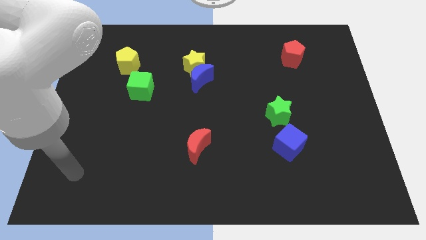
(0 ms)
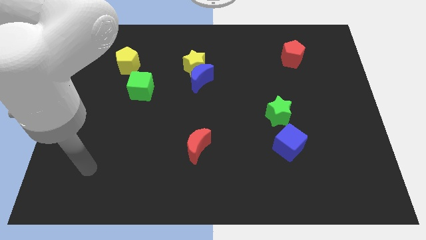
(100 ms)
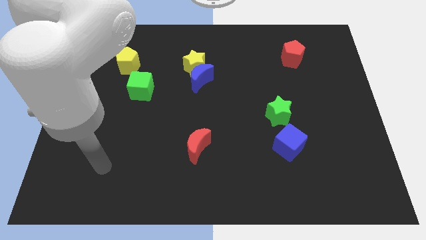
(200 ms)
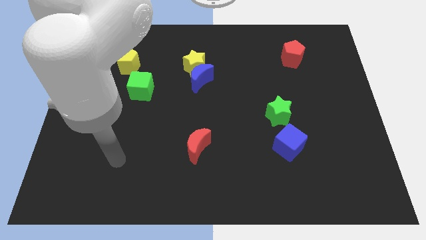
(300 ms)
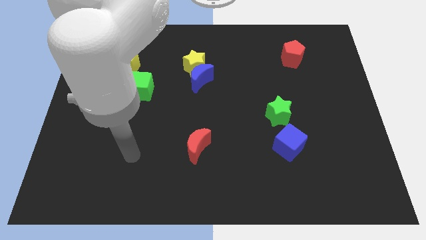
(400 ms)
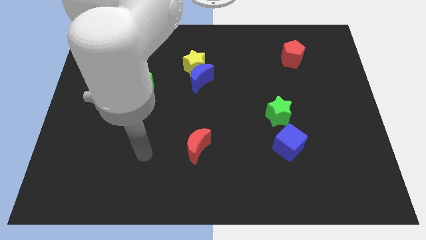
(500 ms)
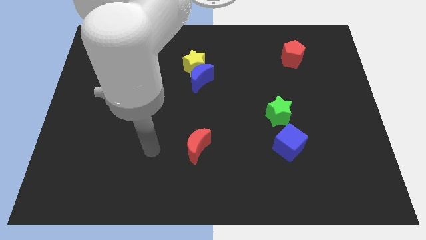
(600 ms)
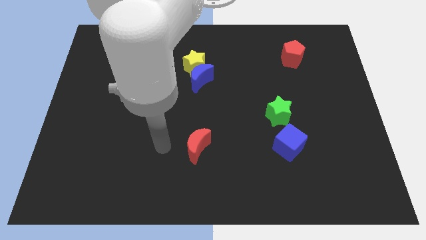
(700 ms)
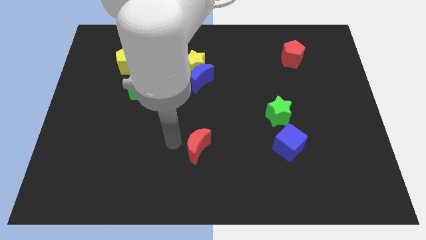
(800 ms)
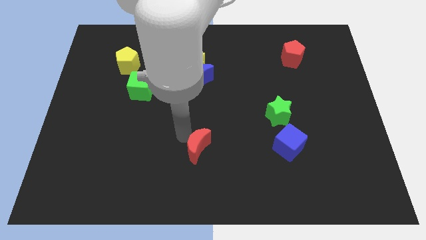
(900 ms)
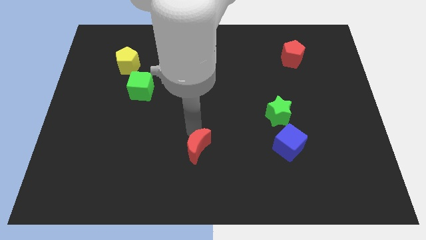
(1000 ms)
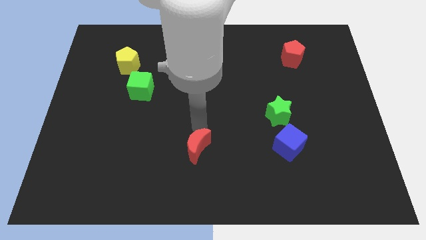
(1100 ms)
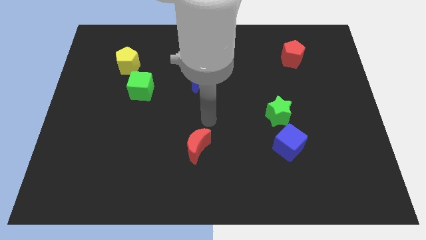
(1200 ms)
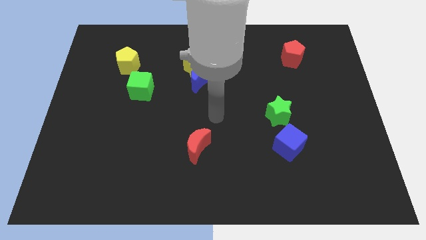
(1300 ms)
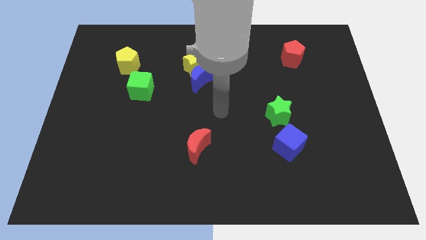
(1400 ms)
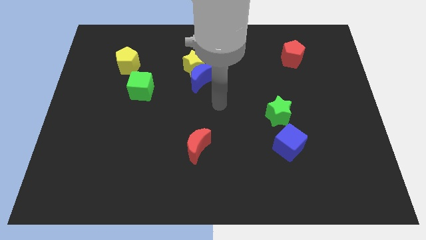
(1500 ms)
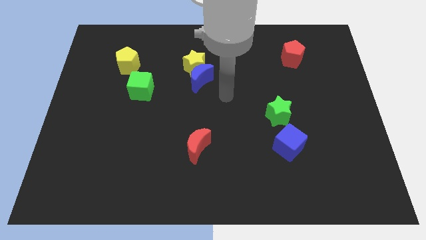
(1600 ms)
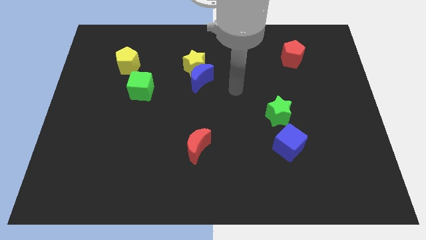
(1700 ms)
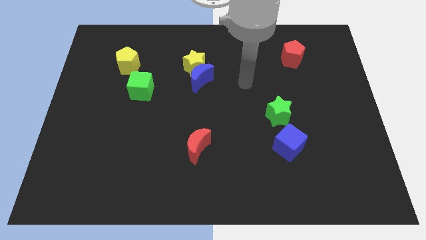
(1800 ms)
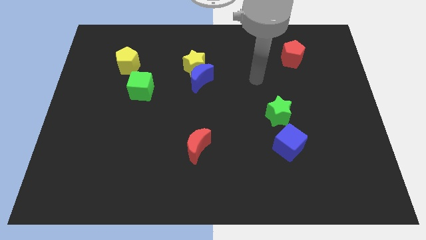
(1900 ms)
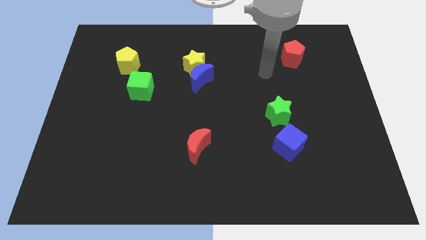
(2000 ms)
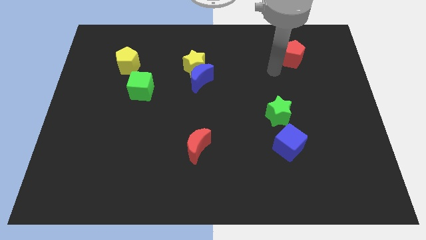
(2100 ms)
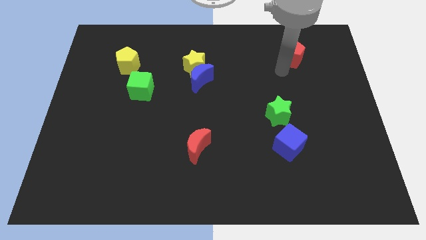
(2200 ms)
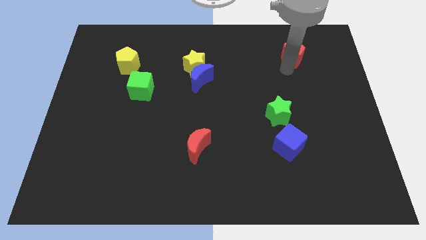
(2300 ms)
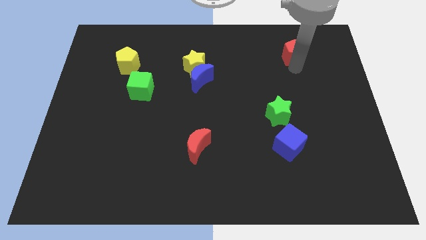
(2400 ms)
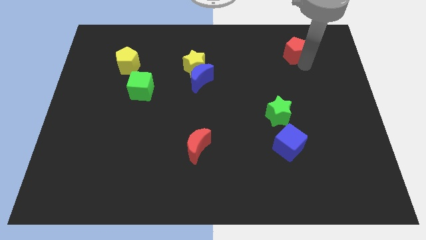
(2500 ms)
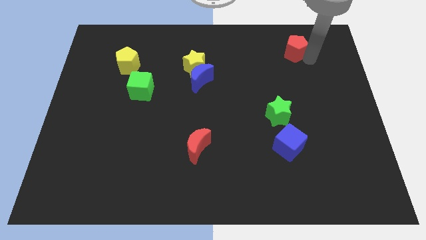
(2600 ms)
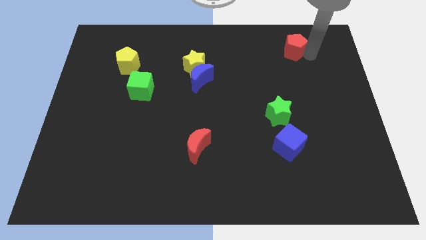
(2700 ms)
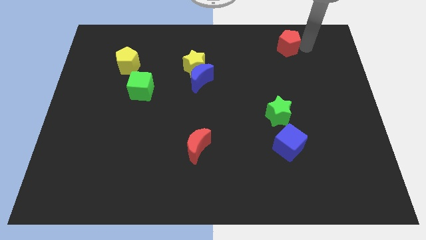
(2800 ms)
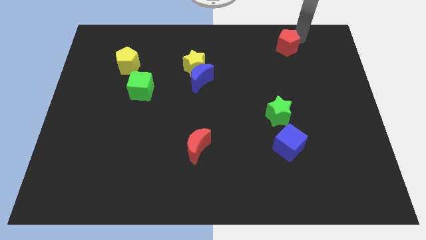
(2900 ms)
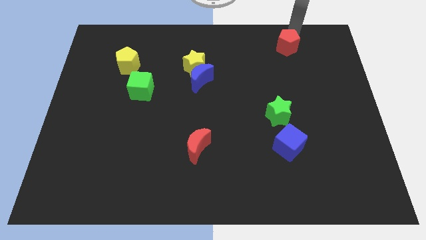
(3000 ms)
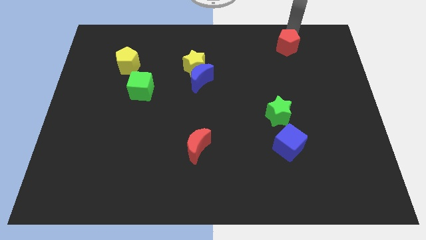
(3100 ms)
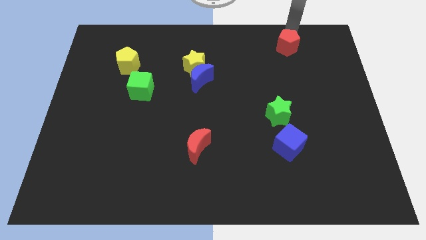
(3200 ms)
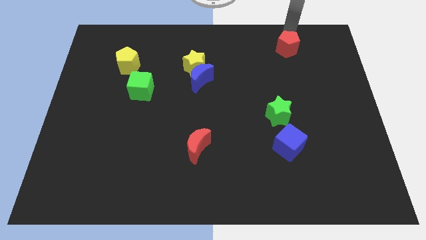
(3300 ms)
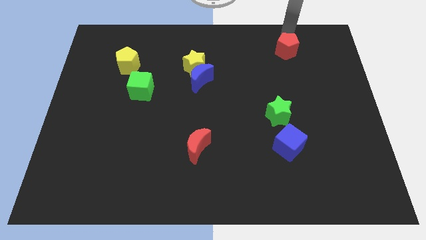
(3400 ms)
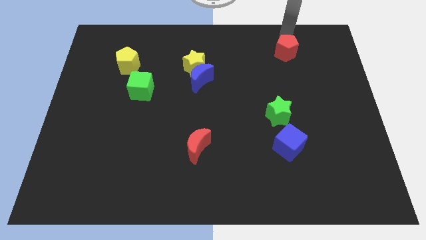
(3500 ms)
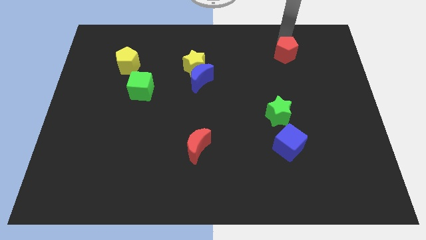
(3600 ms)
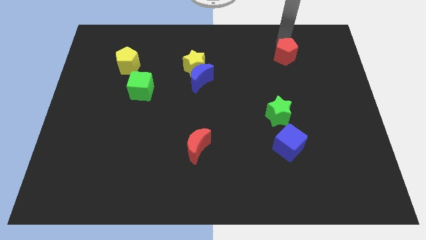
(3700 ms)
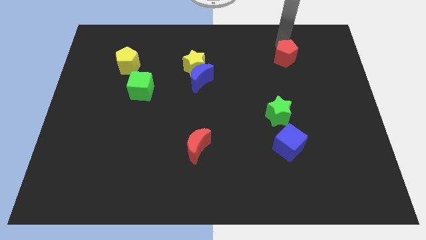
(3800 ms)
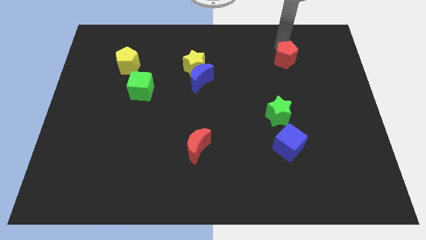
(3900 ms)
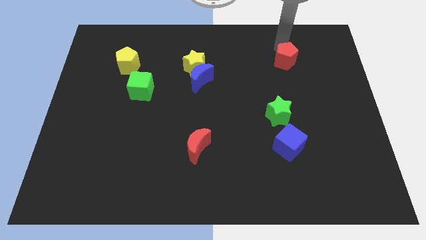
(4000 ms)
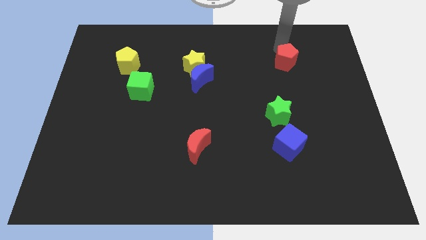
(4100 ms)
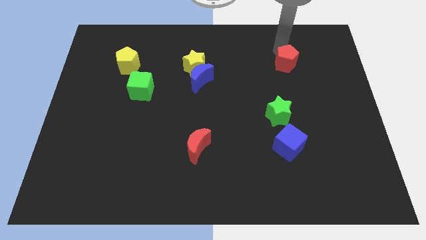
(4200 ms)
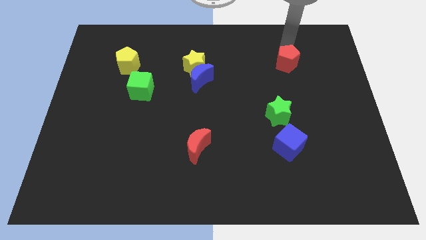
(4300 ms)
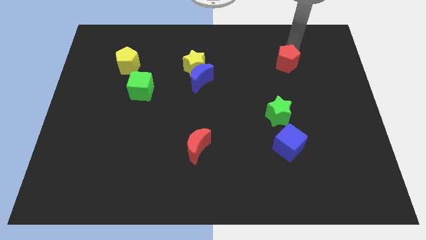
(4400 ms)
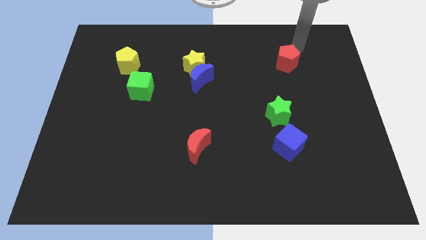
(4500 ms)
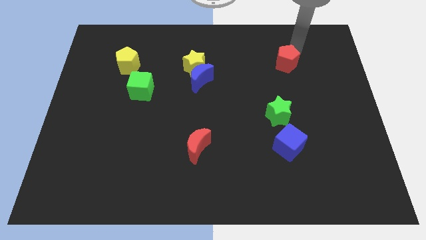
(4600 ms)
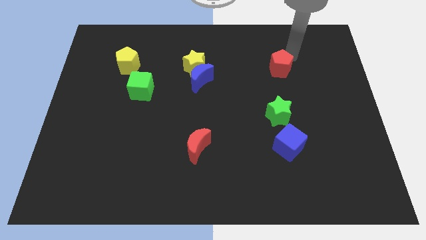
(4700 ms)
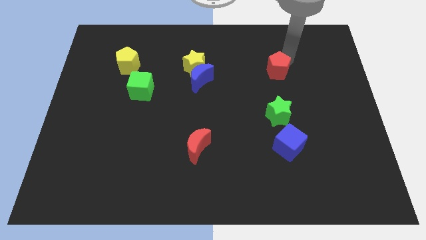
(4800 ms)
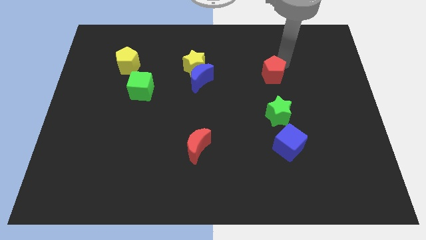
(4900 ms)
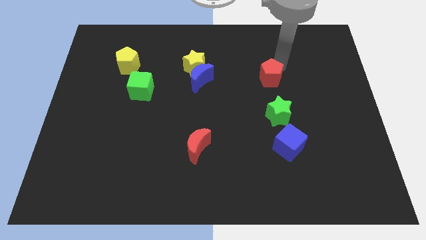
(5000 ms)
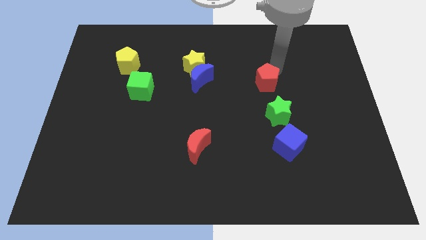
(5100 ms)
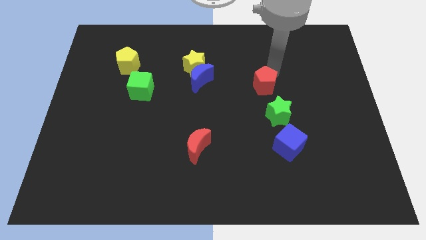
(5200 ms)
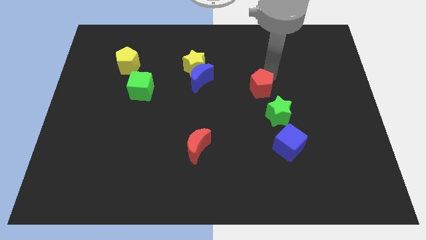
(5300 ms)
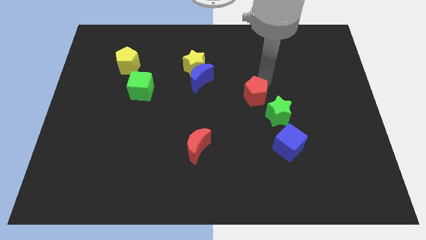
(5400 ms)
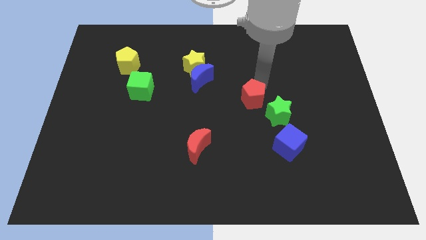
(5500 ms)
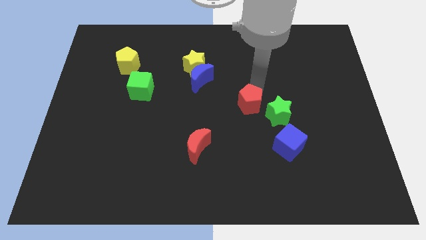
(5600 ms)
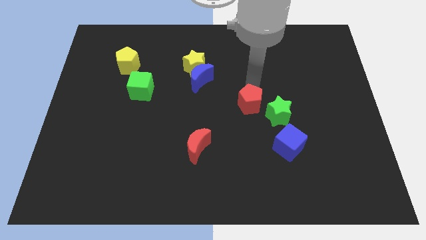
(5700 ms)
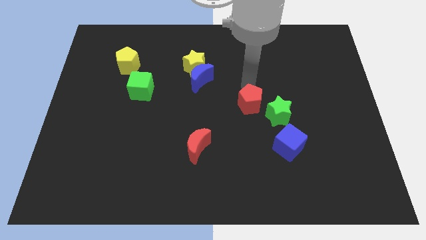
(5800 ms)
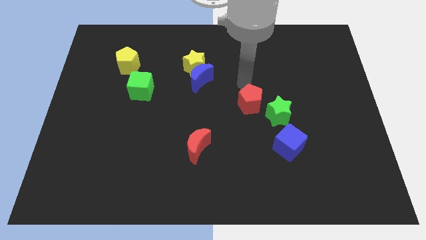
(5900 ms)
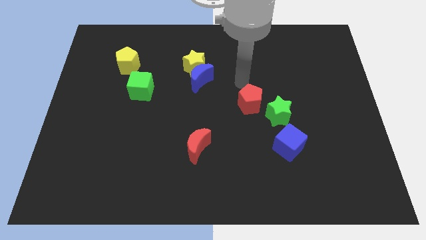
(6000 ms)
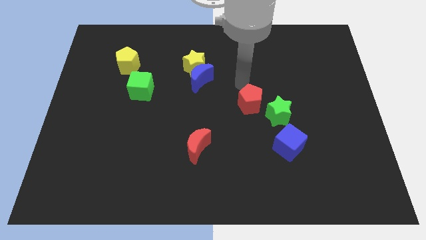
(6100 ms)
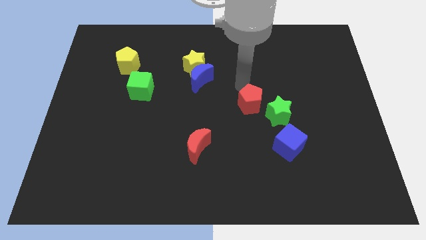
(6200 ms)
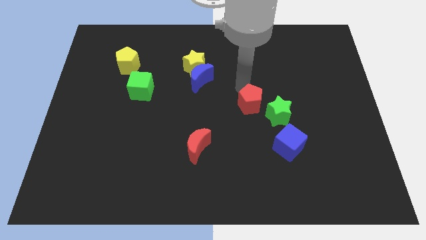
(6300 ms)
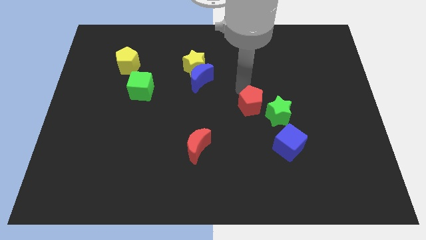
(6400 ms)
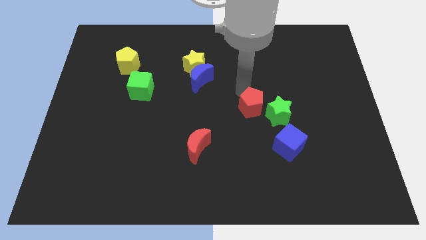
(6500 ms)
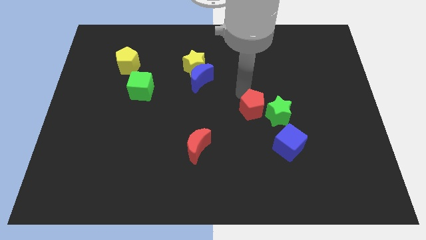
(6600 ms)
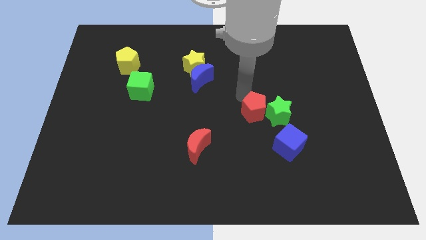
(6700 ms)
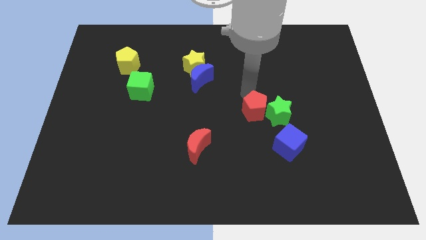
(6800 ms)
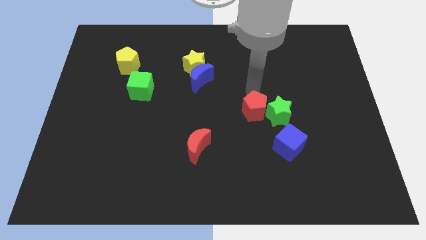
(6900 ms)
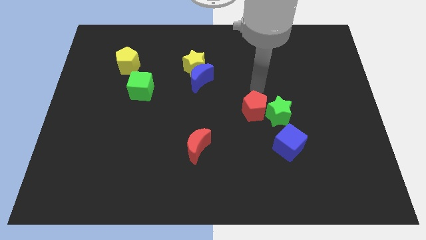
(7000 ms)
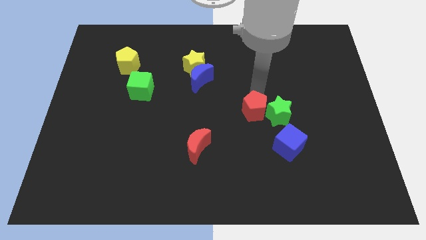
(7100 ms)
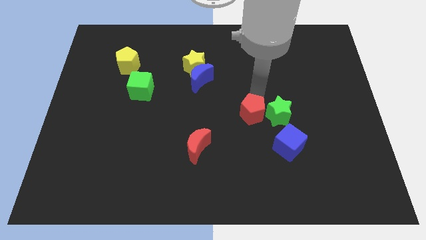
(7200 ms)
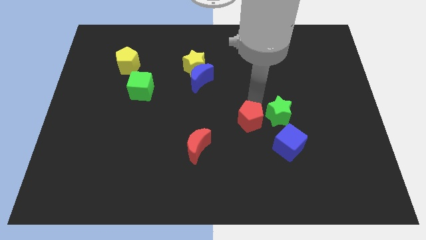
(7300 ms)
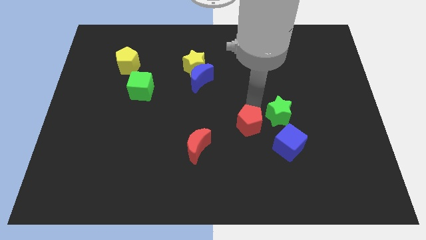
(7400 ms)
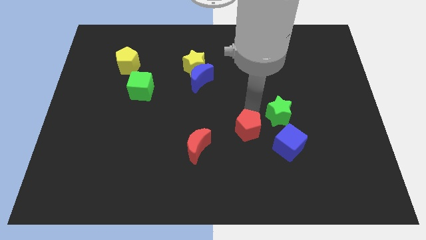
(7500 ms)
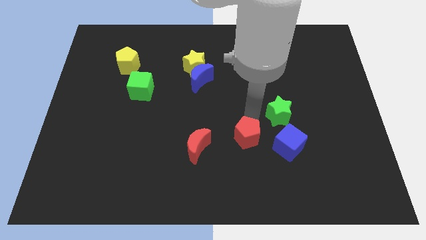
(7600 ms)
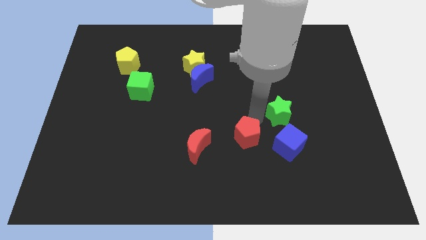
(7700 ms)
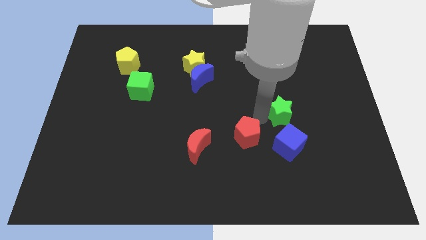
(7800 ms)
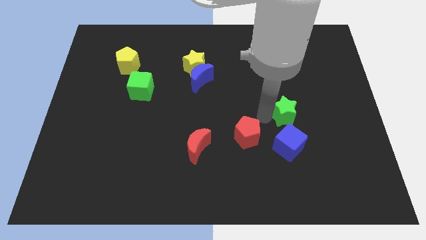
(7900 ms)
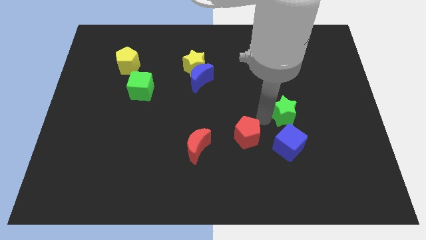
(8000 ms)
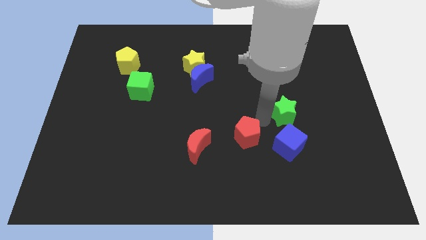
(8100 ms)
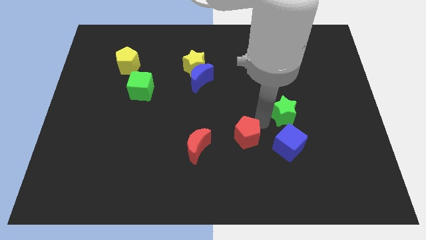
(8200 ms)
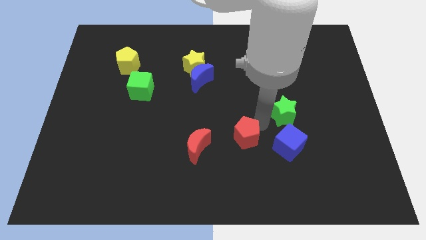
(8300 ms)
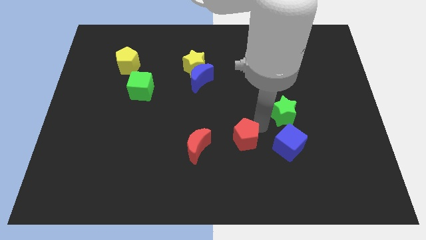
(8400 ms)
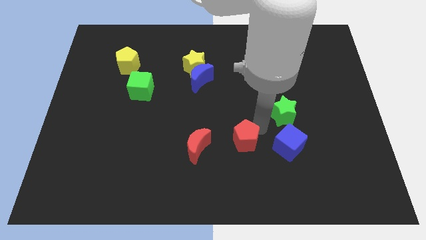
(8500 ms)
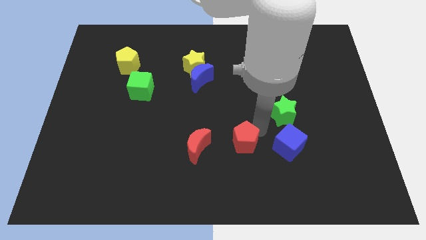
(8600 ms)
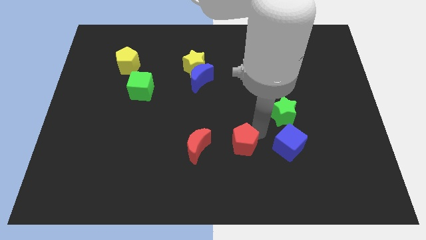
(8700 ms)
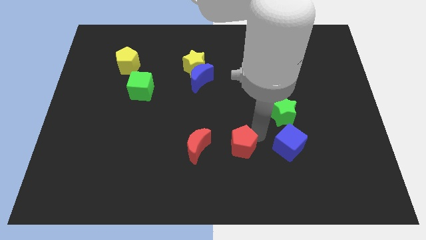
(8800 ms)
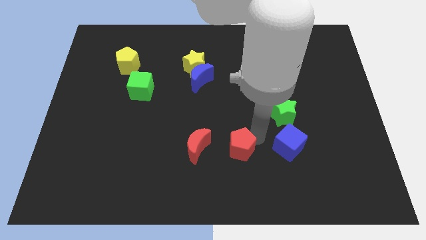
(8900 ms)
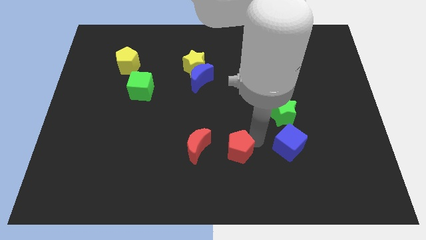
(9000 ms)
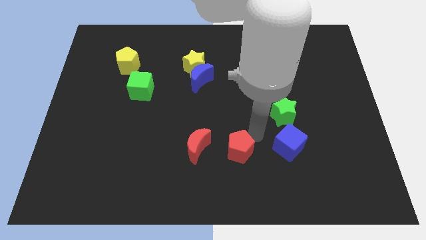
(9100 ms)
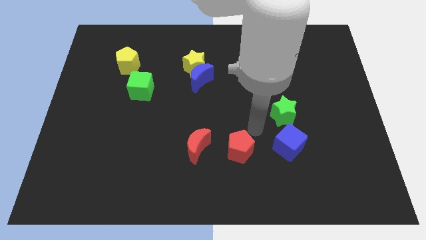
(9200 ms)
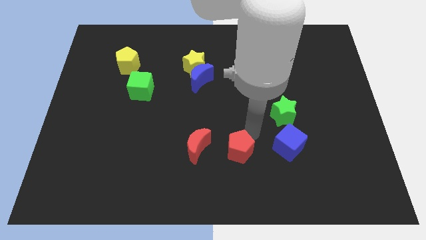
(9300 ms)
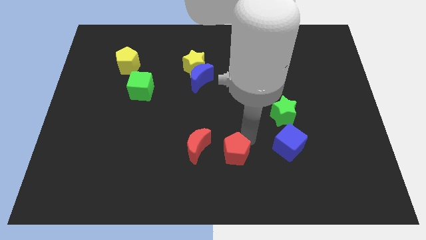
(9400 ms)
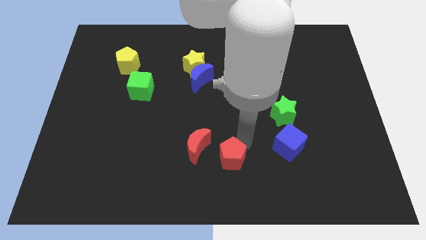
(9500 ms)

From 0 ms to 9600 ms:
put the red pentagon to the bottom
